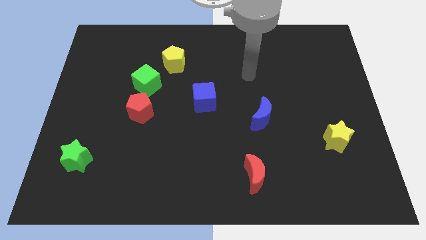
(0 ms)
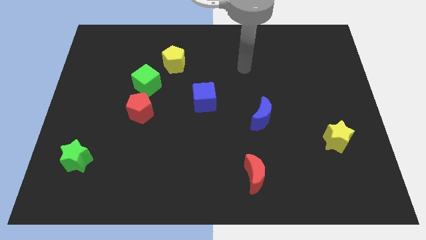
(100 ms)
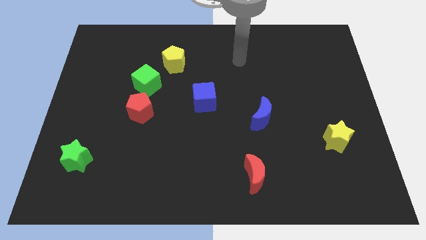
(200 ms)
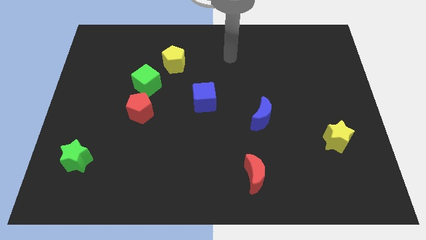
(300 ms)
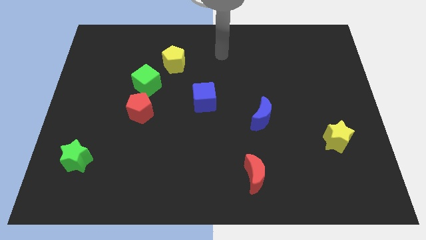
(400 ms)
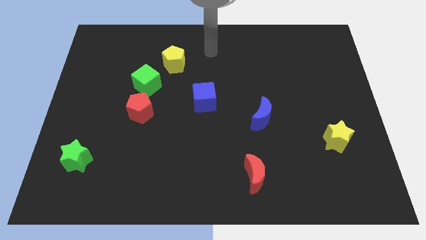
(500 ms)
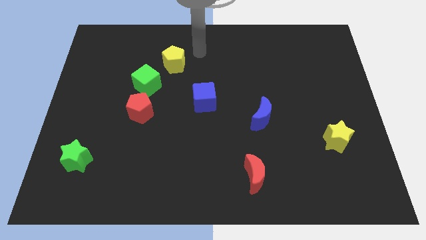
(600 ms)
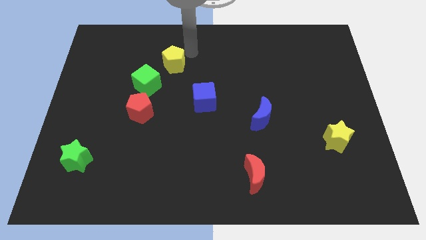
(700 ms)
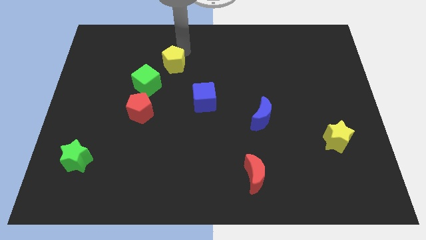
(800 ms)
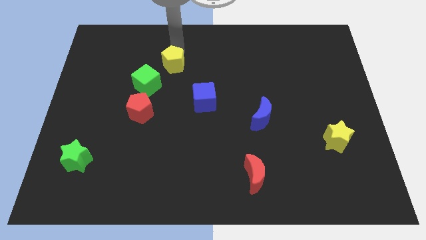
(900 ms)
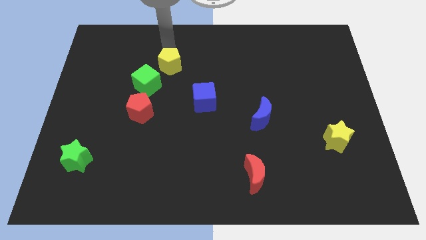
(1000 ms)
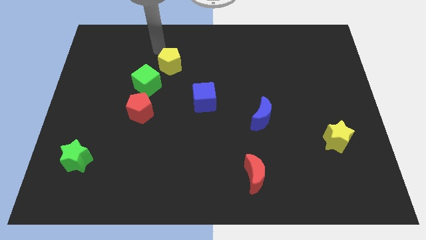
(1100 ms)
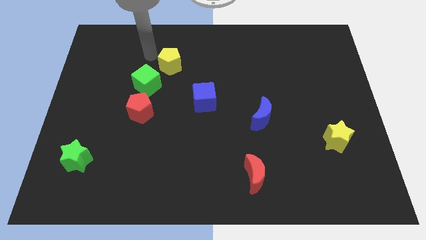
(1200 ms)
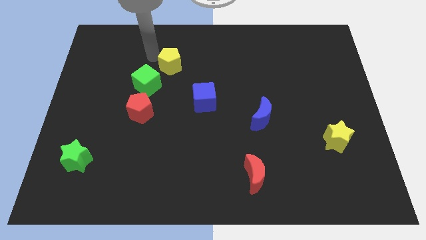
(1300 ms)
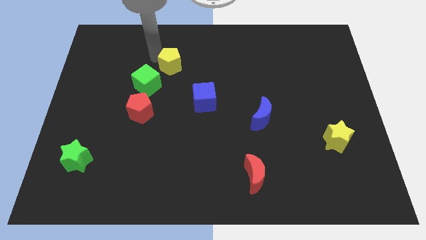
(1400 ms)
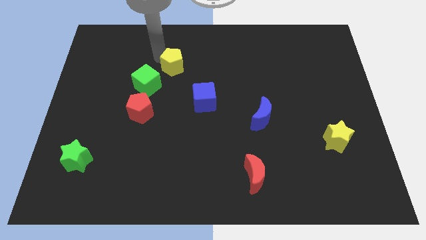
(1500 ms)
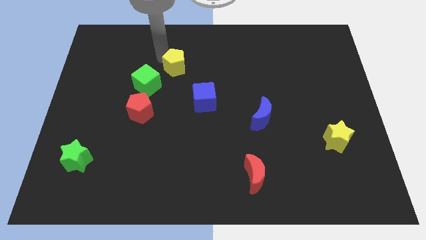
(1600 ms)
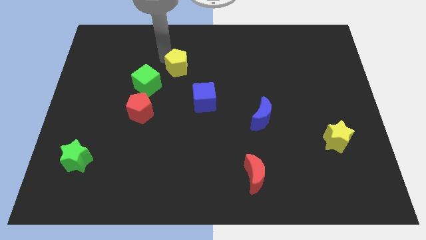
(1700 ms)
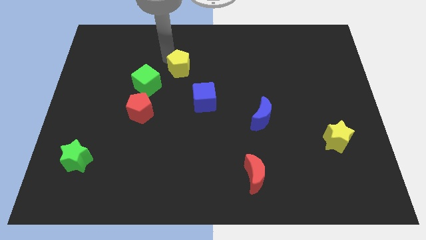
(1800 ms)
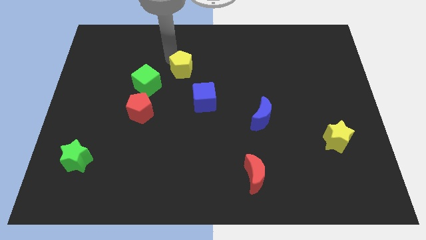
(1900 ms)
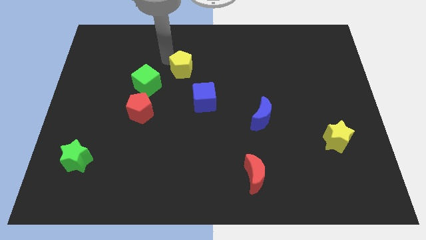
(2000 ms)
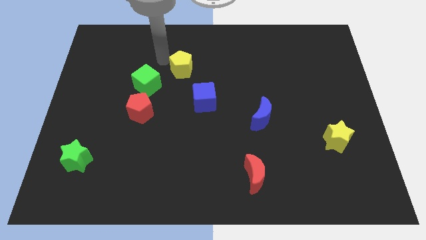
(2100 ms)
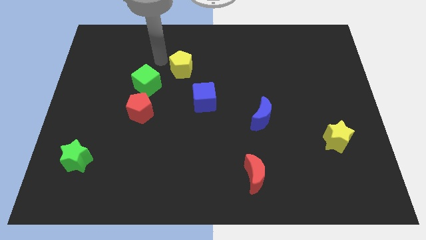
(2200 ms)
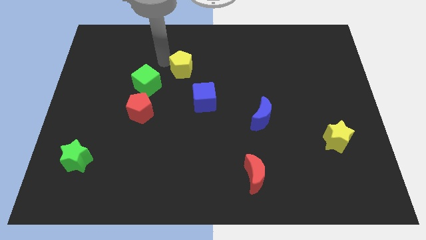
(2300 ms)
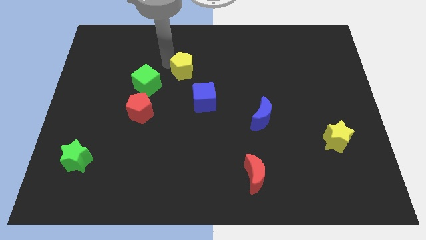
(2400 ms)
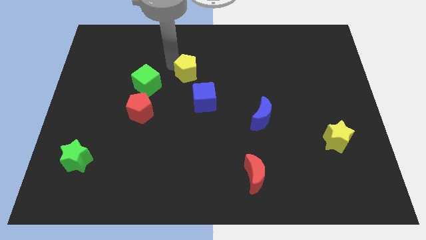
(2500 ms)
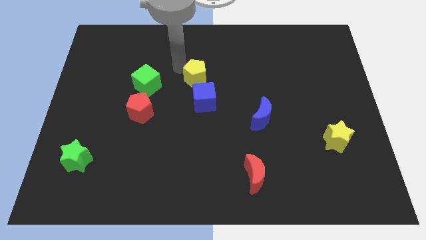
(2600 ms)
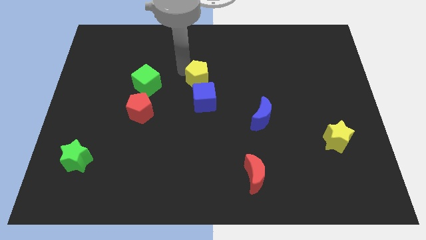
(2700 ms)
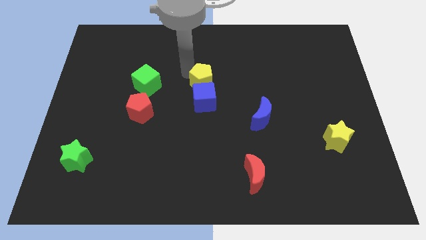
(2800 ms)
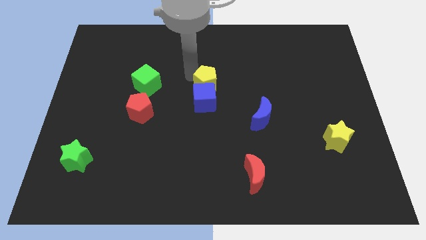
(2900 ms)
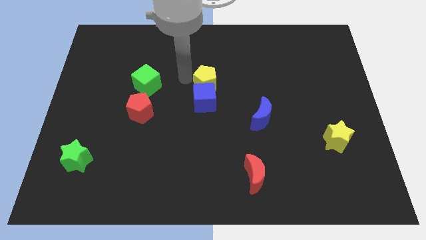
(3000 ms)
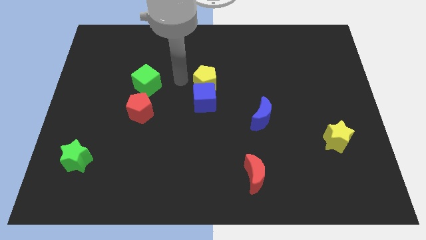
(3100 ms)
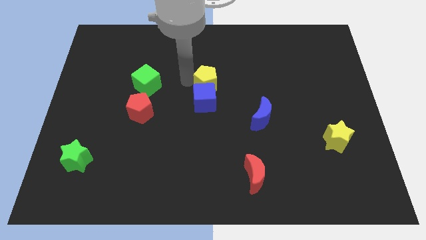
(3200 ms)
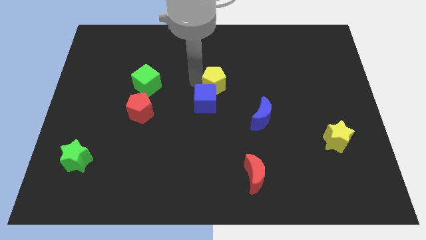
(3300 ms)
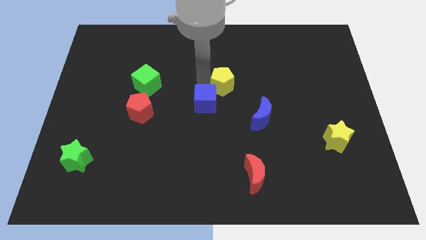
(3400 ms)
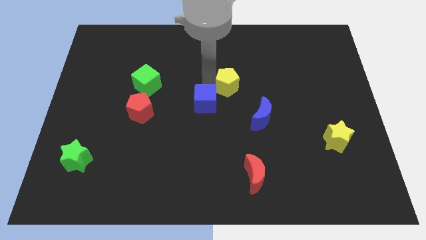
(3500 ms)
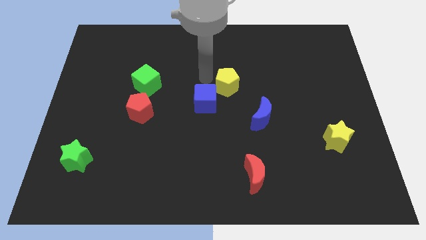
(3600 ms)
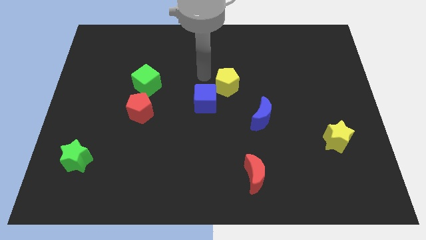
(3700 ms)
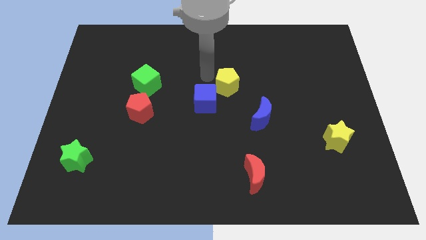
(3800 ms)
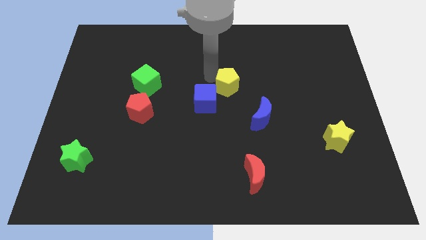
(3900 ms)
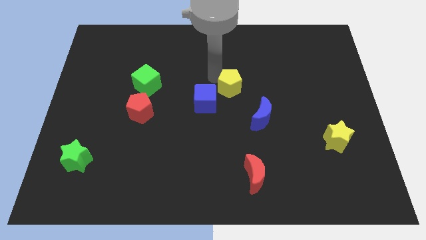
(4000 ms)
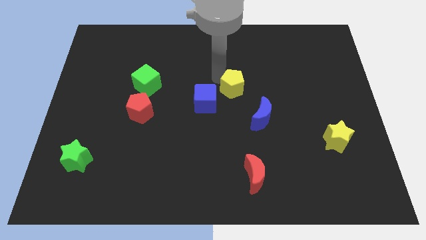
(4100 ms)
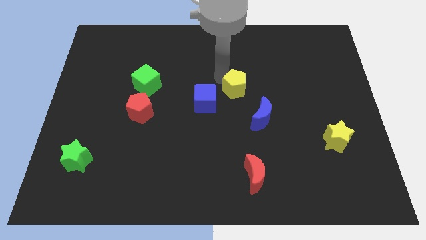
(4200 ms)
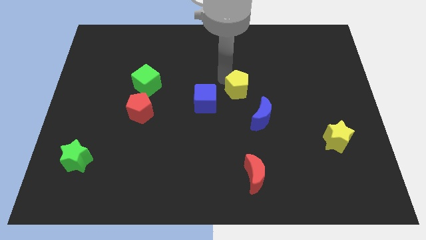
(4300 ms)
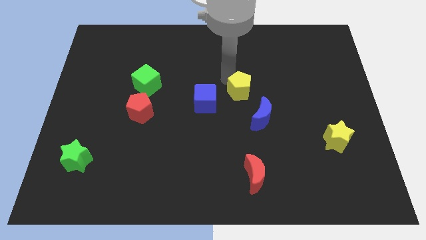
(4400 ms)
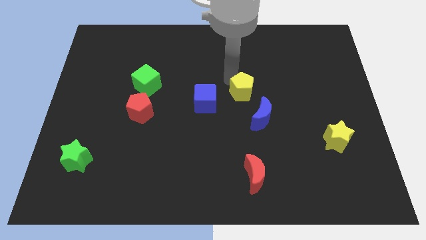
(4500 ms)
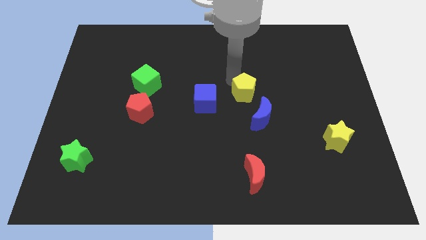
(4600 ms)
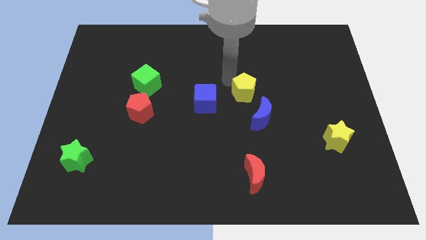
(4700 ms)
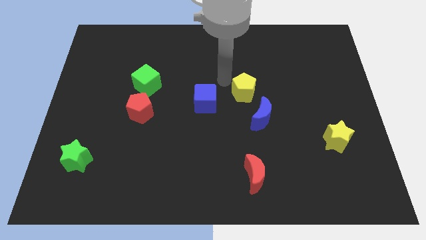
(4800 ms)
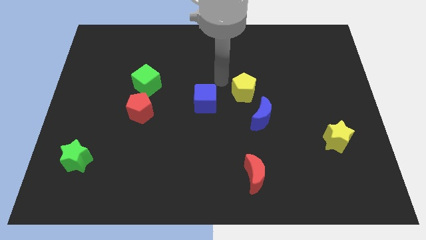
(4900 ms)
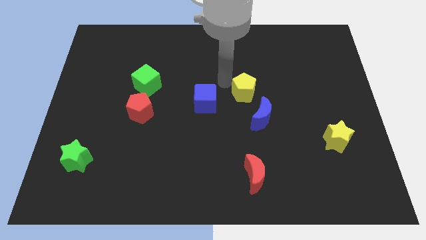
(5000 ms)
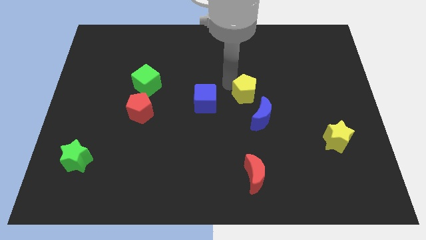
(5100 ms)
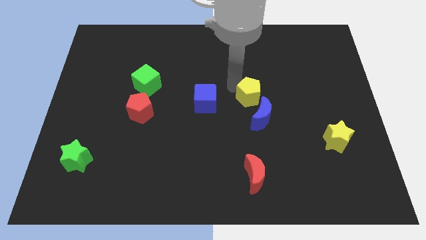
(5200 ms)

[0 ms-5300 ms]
move the yellow pentagon diagonally downwards and right

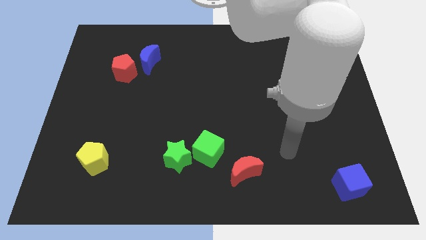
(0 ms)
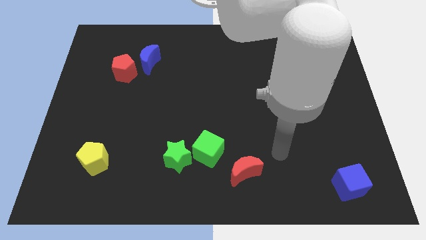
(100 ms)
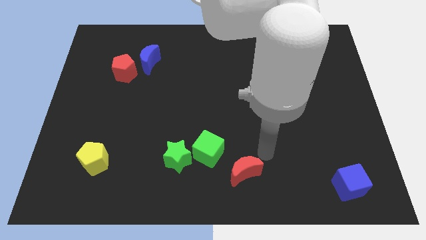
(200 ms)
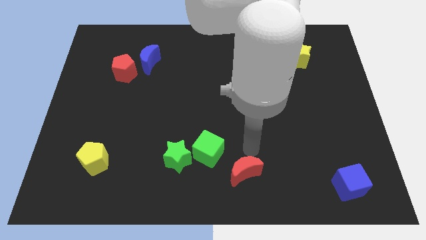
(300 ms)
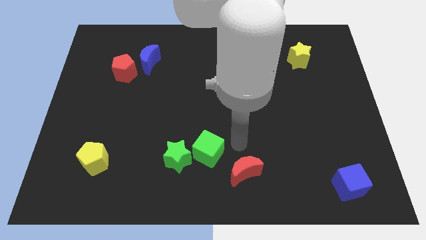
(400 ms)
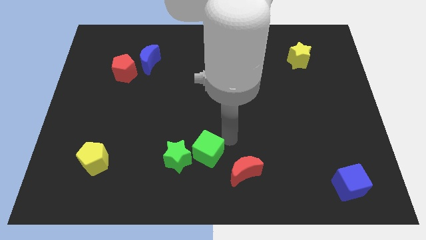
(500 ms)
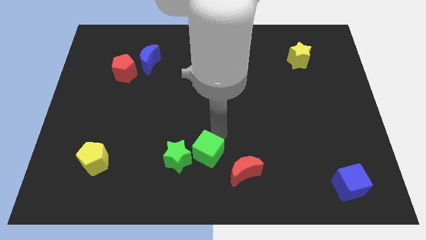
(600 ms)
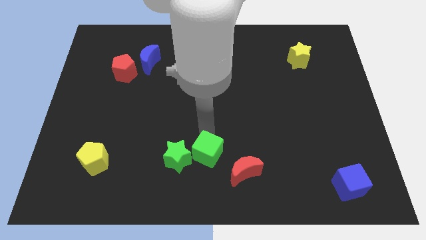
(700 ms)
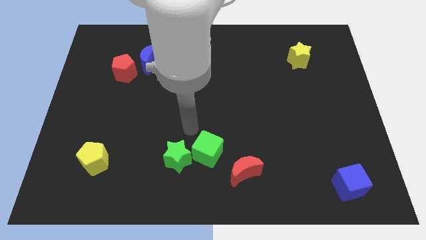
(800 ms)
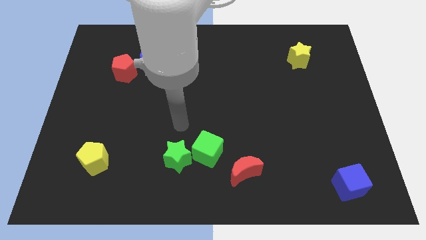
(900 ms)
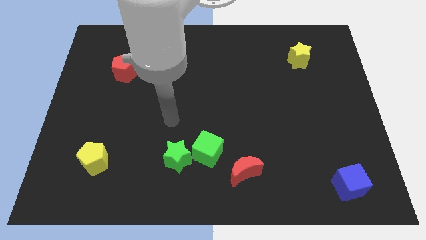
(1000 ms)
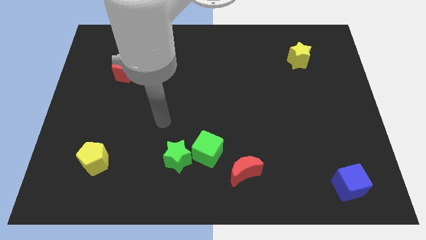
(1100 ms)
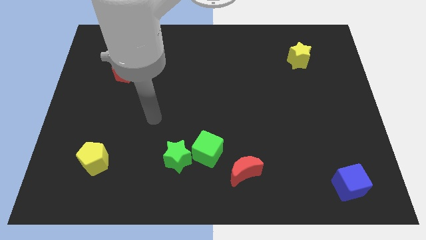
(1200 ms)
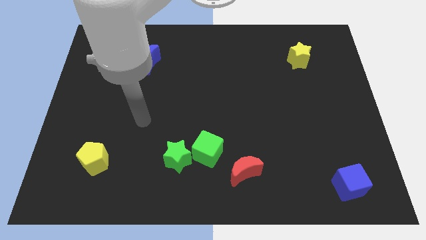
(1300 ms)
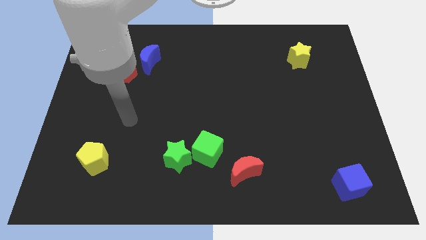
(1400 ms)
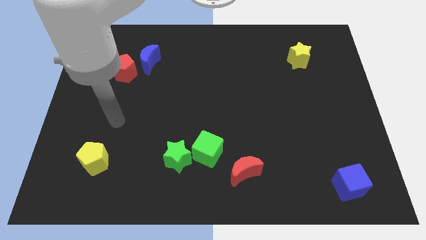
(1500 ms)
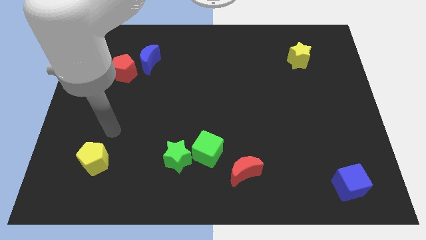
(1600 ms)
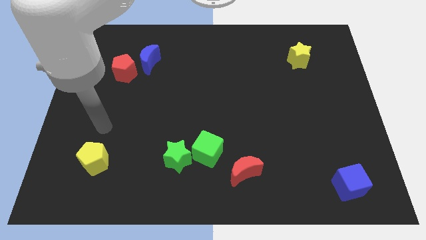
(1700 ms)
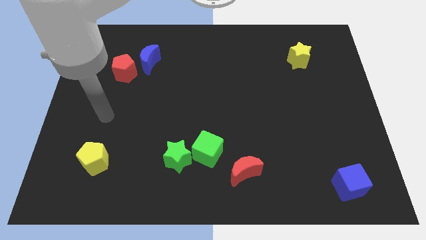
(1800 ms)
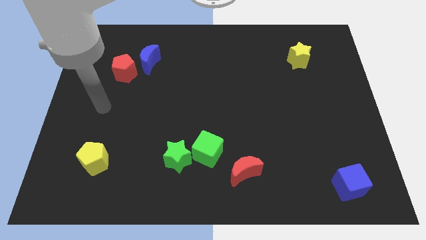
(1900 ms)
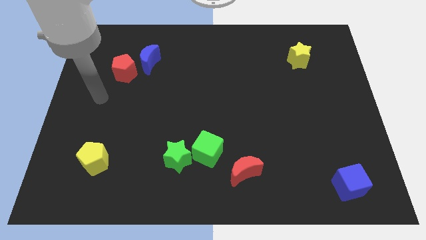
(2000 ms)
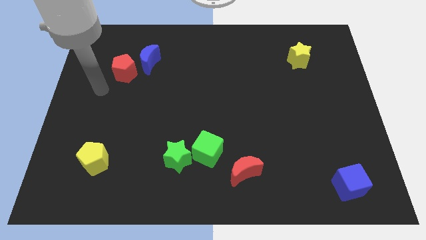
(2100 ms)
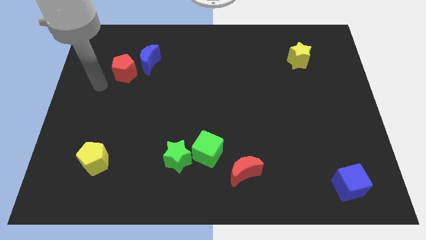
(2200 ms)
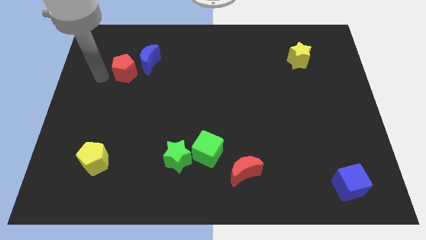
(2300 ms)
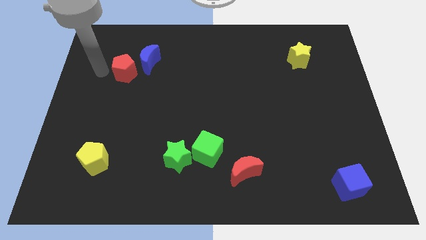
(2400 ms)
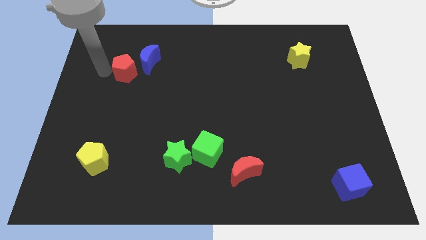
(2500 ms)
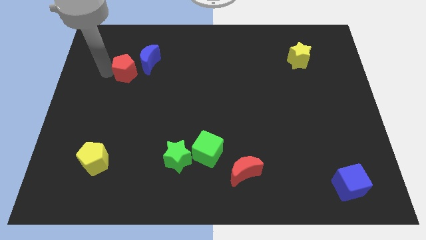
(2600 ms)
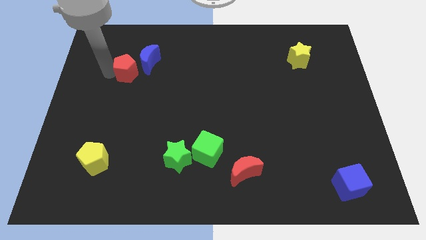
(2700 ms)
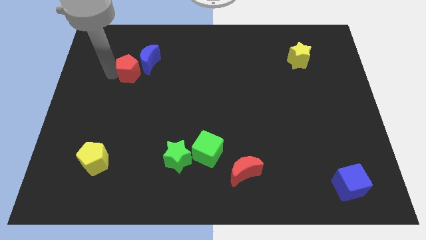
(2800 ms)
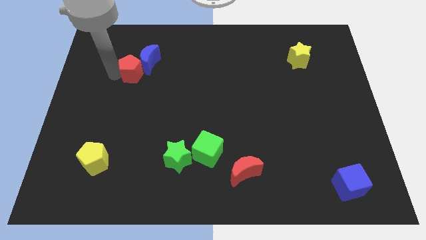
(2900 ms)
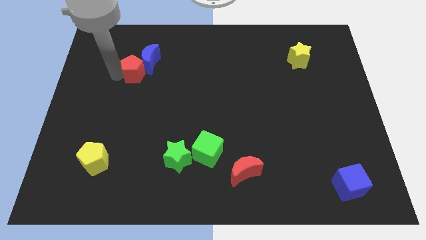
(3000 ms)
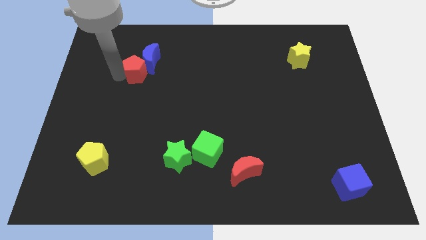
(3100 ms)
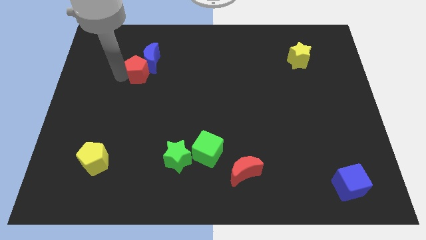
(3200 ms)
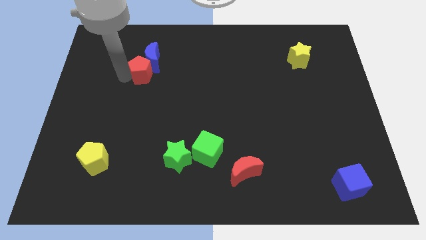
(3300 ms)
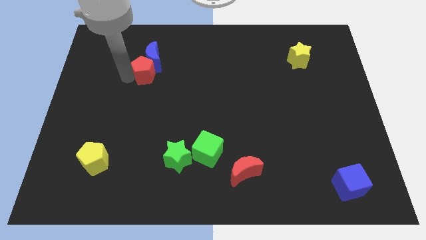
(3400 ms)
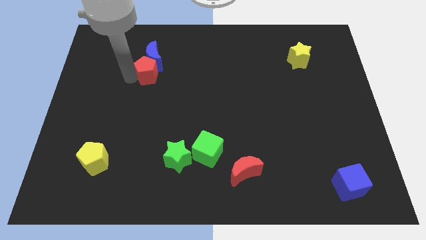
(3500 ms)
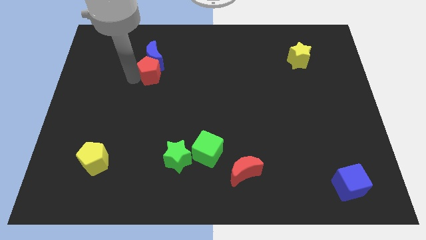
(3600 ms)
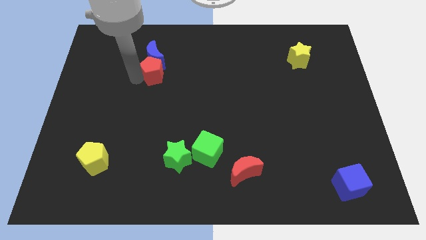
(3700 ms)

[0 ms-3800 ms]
slightly slide the red pentagon right
